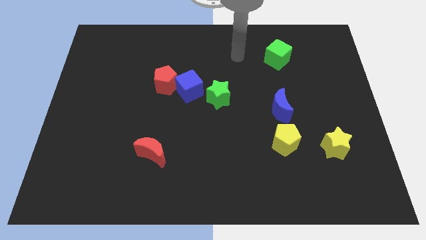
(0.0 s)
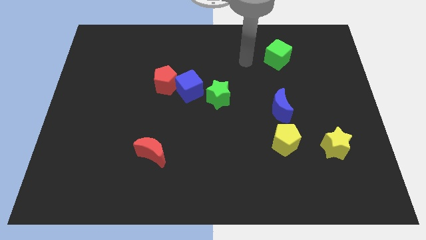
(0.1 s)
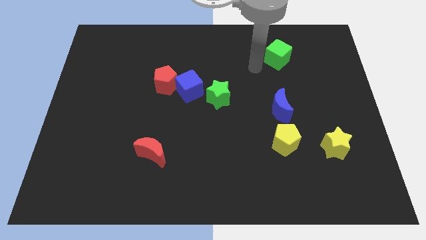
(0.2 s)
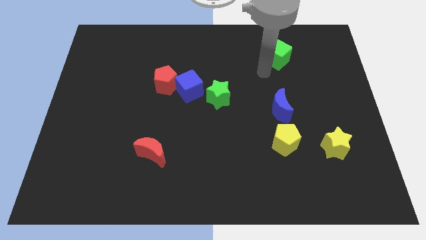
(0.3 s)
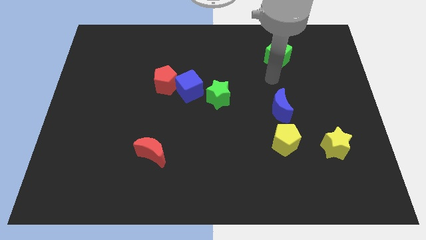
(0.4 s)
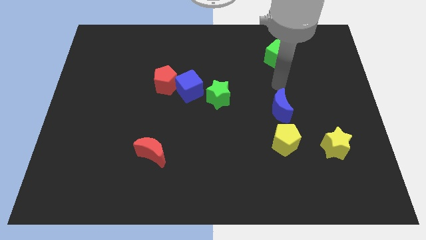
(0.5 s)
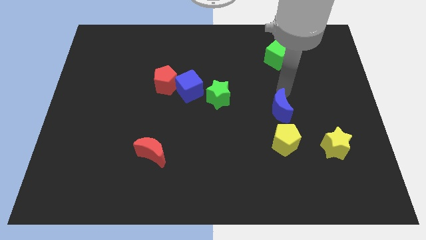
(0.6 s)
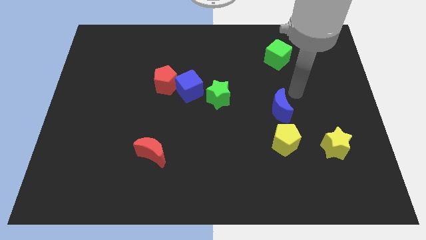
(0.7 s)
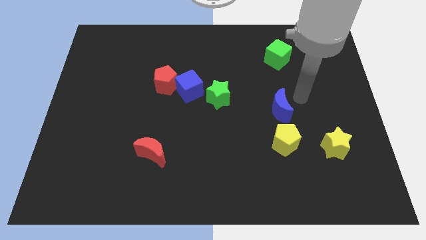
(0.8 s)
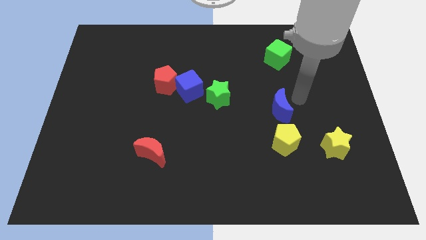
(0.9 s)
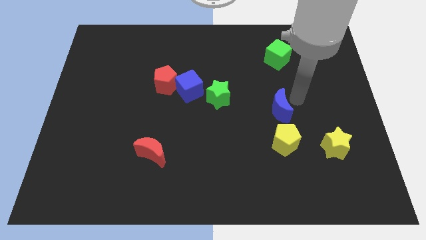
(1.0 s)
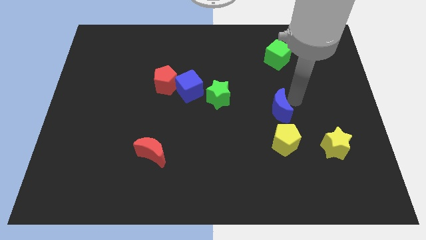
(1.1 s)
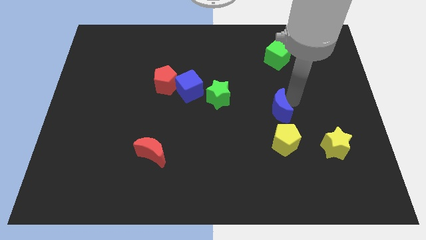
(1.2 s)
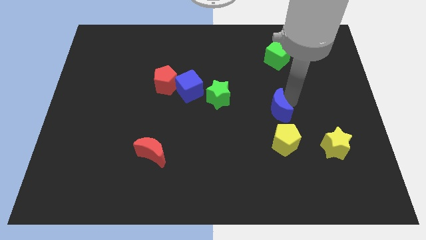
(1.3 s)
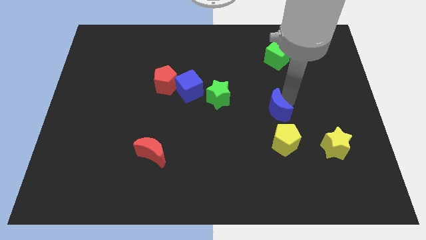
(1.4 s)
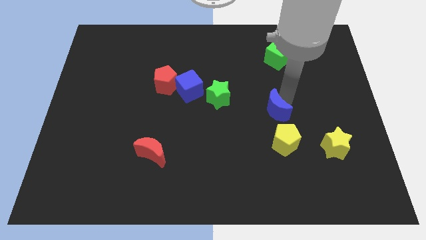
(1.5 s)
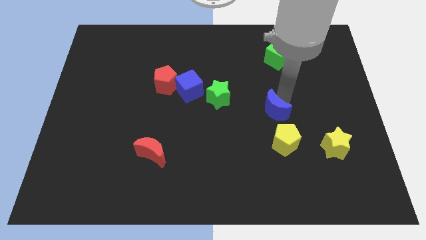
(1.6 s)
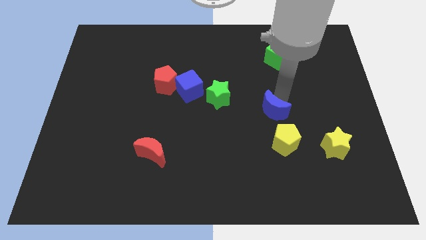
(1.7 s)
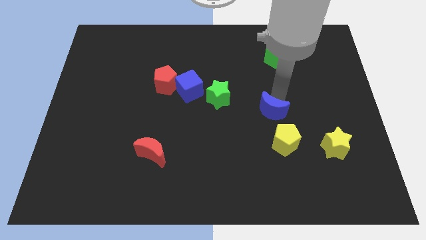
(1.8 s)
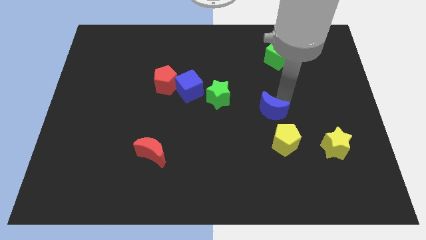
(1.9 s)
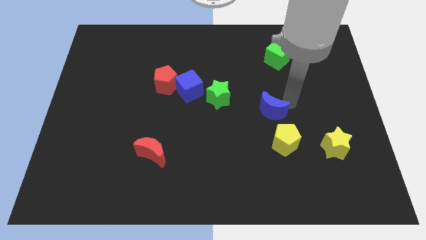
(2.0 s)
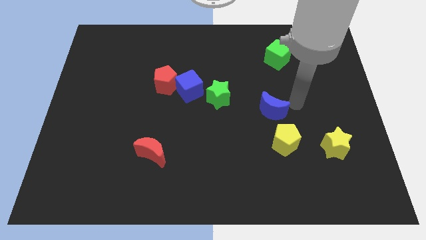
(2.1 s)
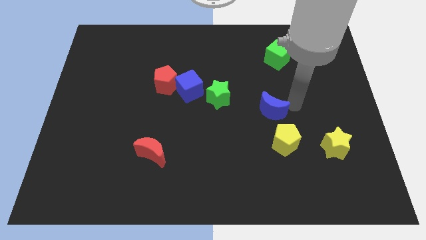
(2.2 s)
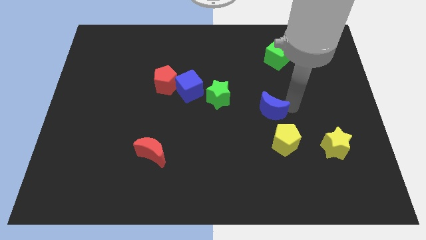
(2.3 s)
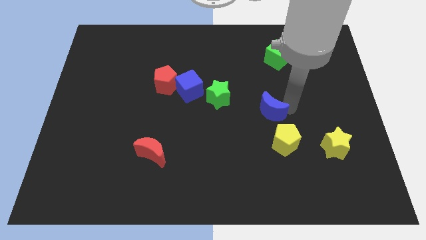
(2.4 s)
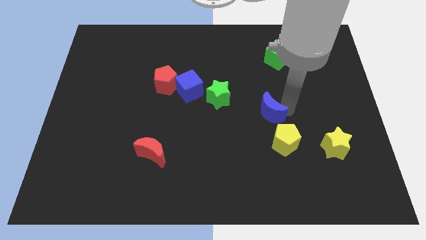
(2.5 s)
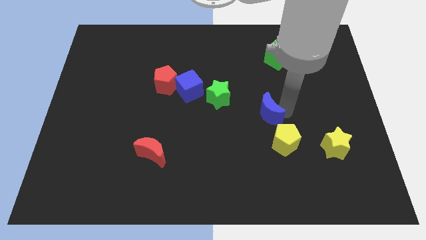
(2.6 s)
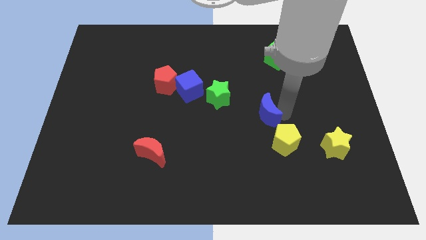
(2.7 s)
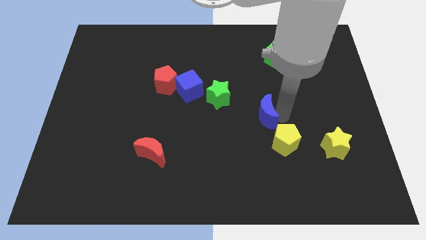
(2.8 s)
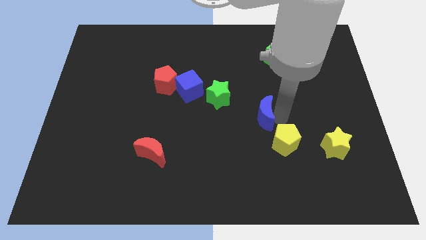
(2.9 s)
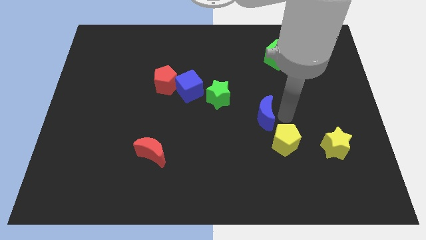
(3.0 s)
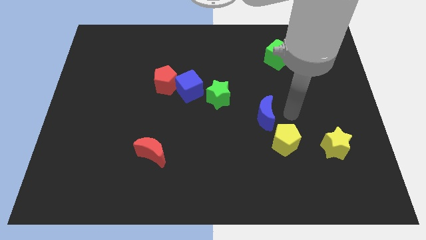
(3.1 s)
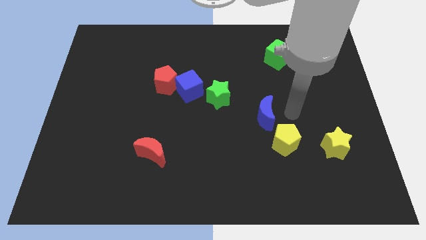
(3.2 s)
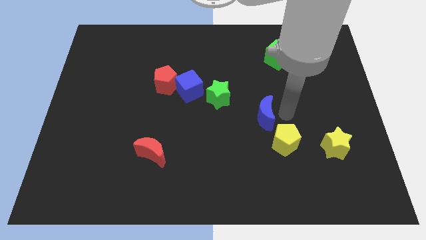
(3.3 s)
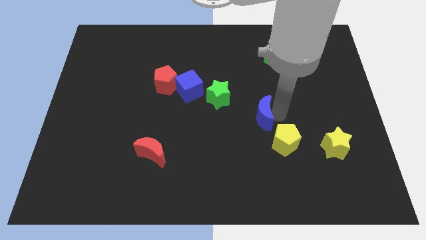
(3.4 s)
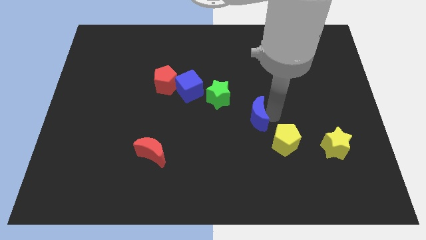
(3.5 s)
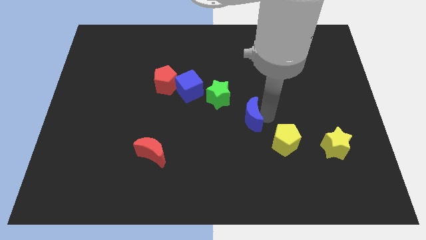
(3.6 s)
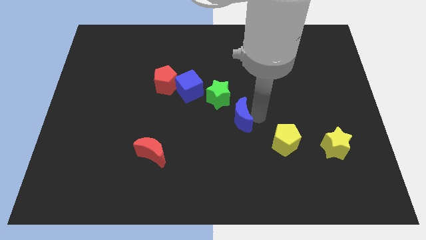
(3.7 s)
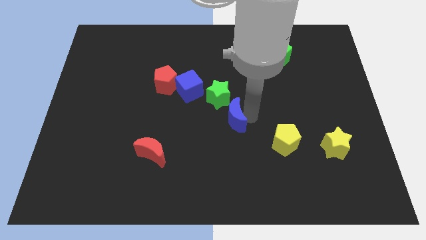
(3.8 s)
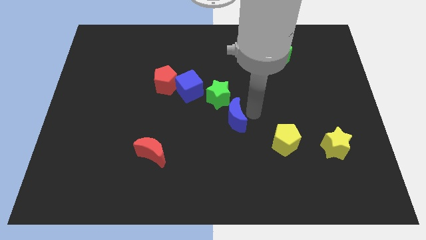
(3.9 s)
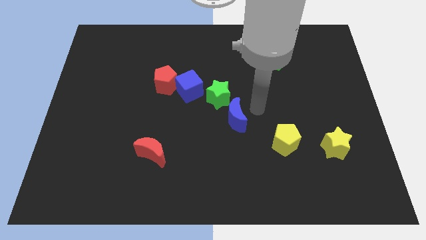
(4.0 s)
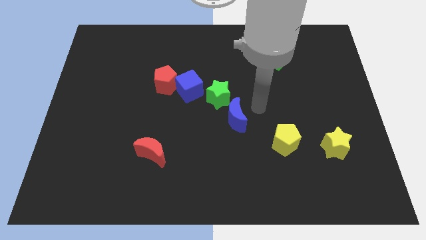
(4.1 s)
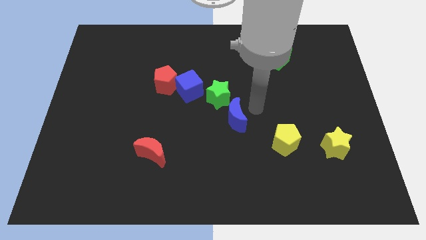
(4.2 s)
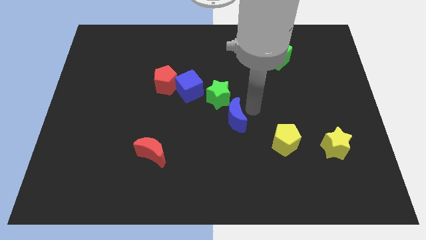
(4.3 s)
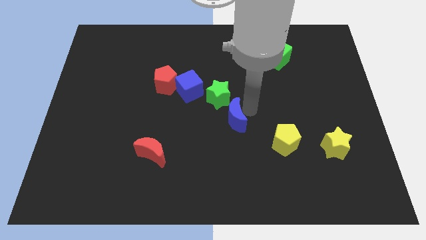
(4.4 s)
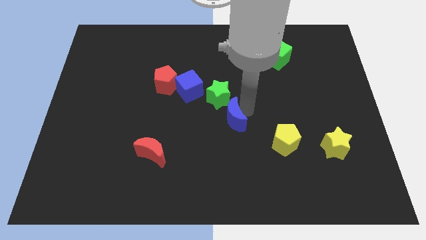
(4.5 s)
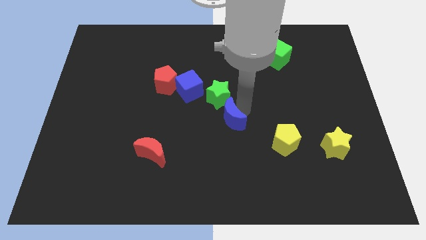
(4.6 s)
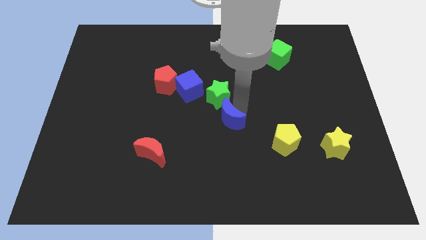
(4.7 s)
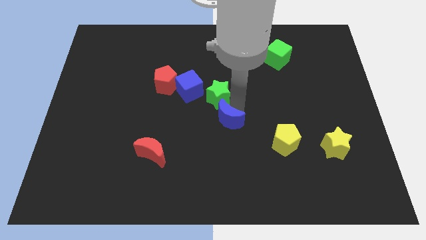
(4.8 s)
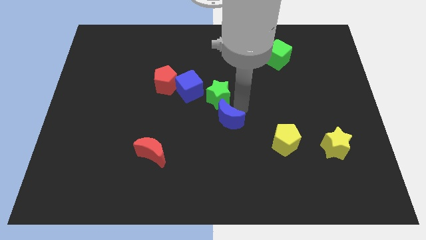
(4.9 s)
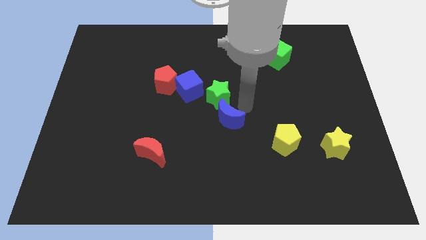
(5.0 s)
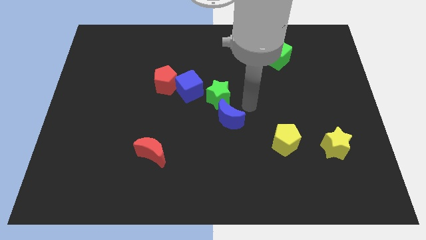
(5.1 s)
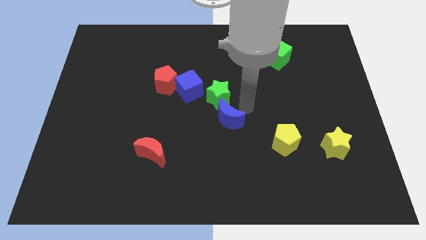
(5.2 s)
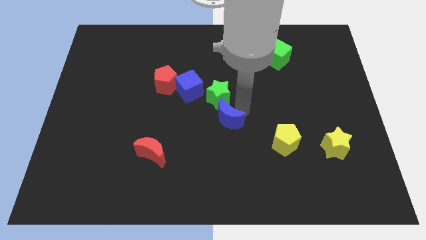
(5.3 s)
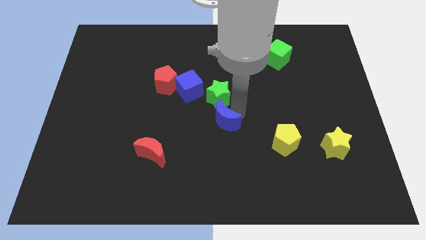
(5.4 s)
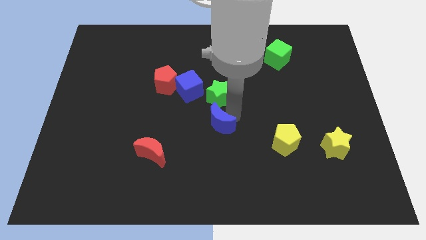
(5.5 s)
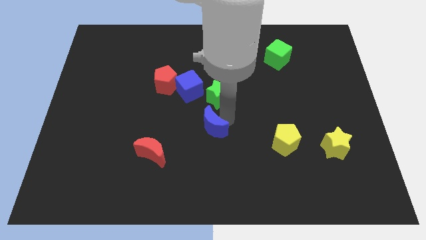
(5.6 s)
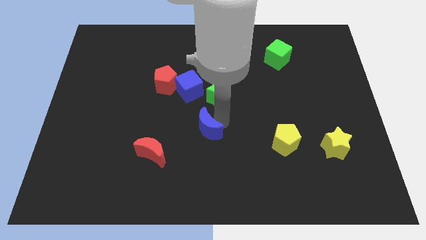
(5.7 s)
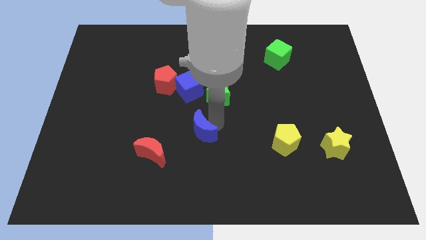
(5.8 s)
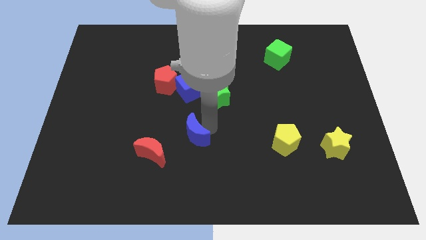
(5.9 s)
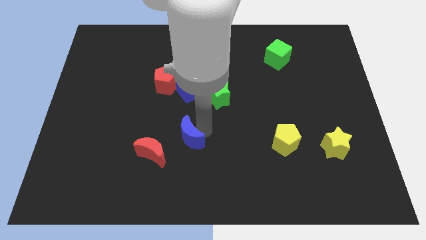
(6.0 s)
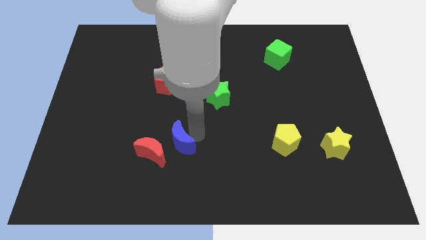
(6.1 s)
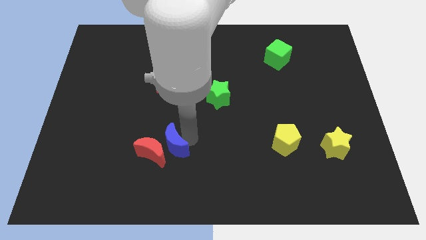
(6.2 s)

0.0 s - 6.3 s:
move the blue moon to the red moon

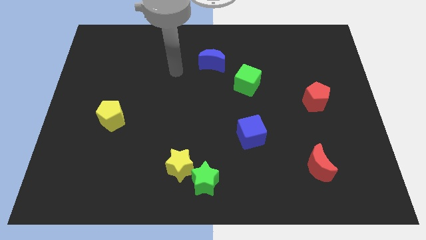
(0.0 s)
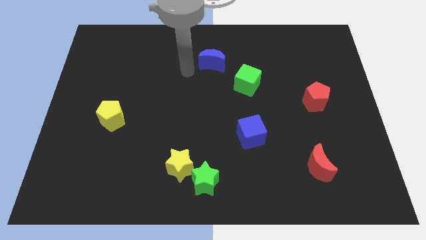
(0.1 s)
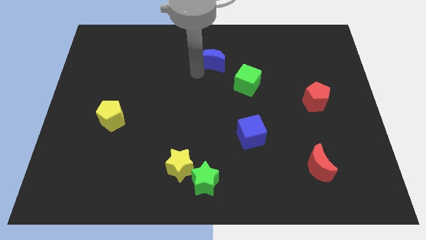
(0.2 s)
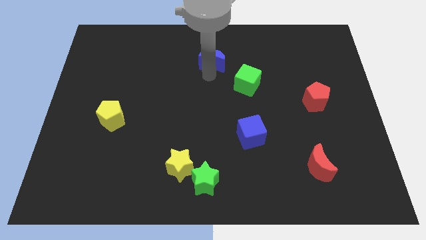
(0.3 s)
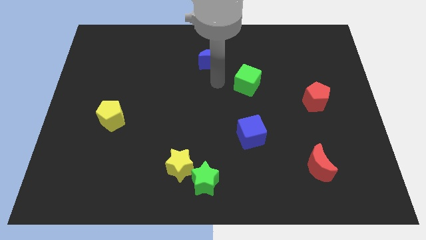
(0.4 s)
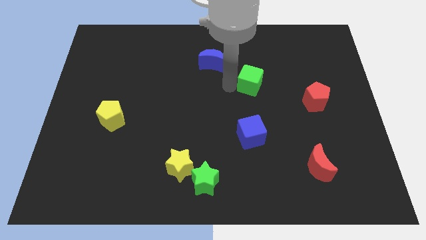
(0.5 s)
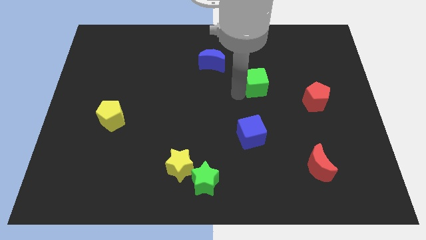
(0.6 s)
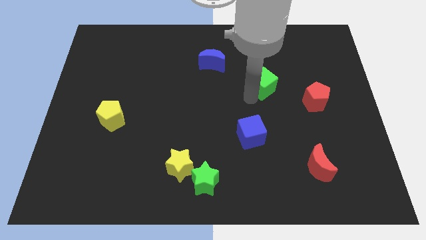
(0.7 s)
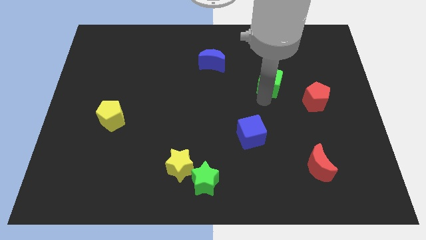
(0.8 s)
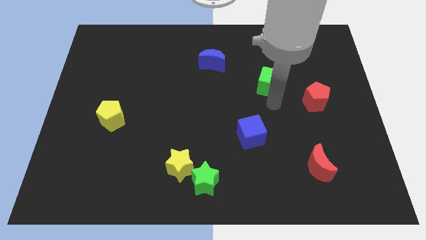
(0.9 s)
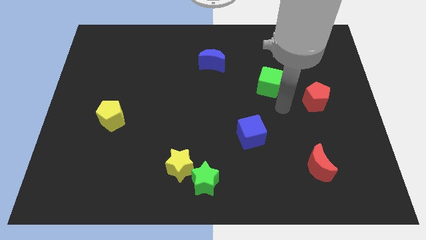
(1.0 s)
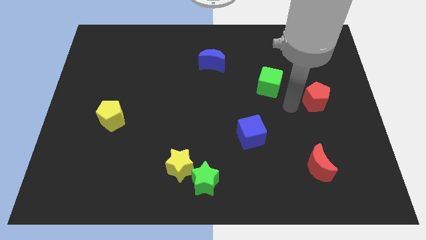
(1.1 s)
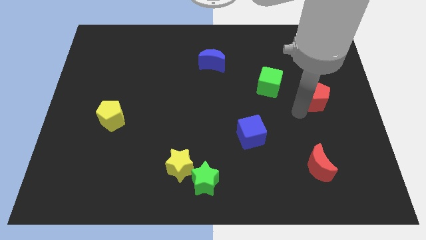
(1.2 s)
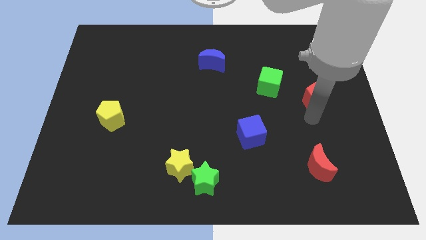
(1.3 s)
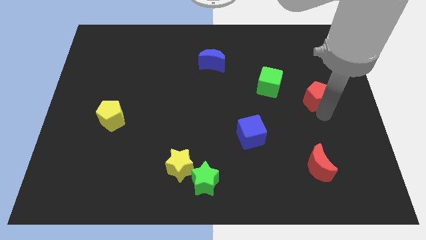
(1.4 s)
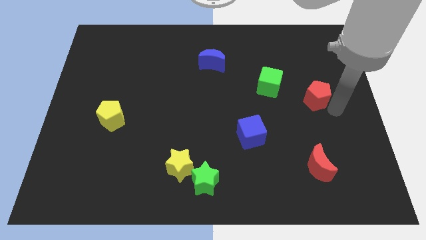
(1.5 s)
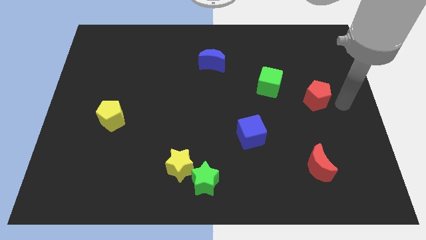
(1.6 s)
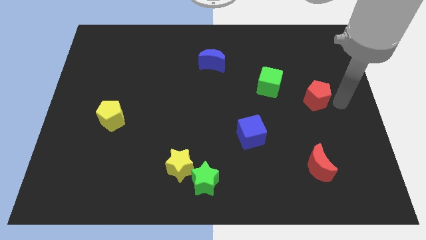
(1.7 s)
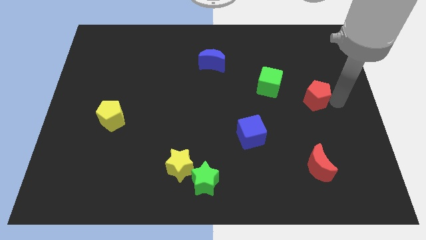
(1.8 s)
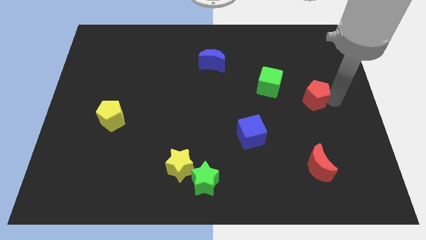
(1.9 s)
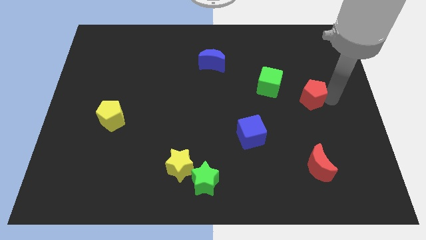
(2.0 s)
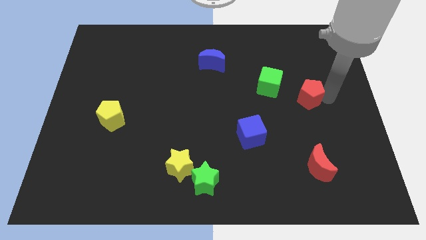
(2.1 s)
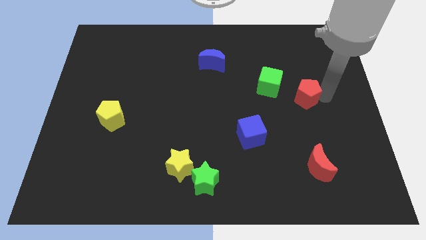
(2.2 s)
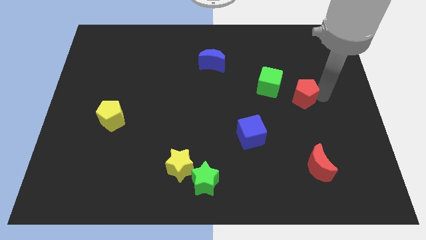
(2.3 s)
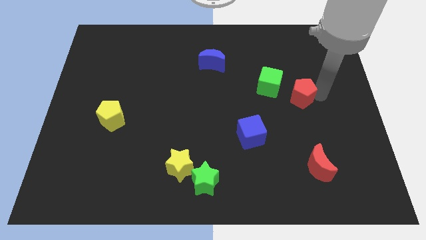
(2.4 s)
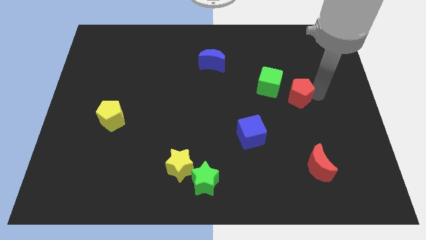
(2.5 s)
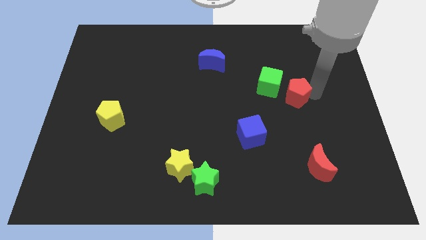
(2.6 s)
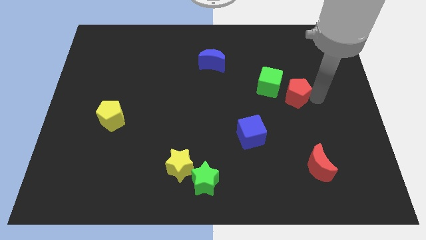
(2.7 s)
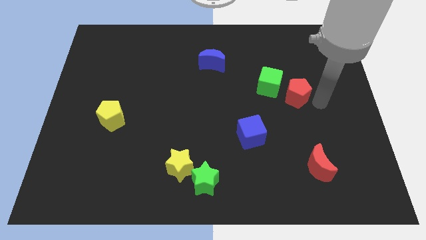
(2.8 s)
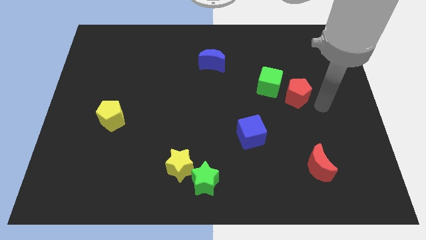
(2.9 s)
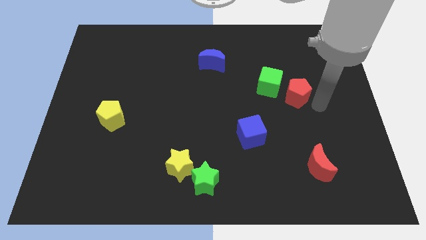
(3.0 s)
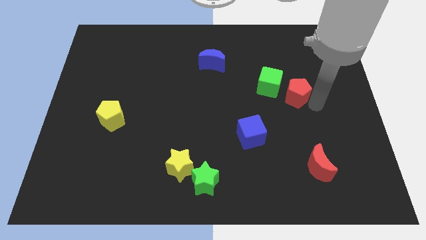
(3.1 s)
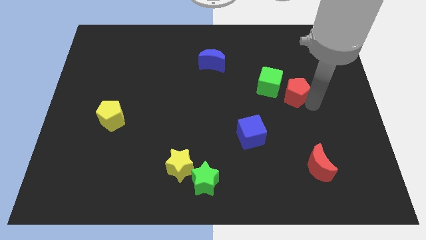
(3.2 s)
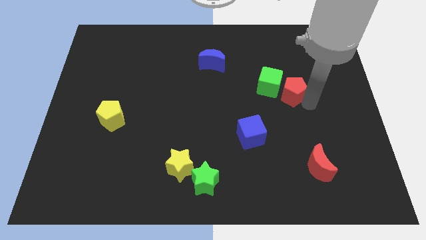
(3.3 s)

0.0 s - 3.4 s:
slide the red pentagon towards the green cube
